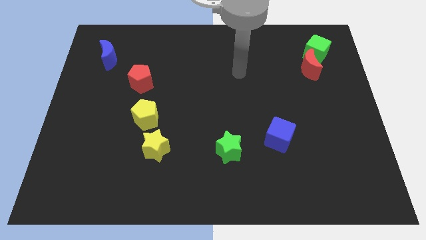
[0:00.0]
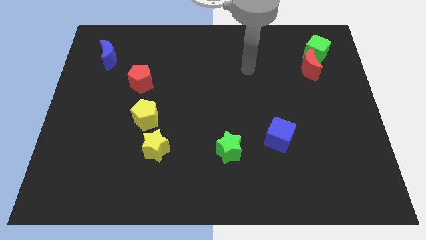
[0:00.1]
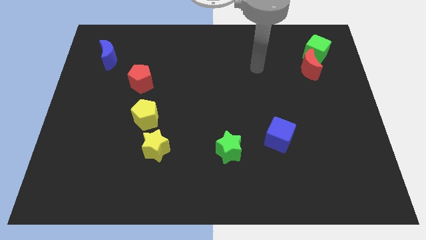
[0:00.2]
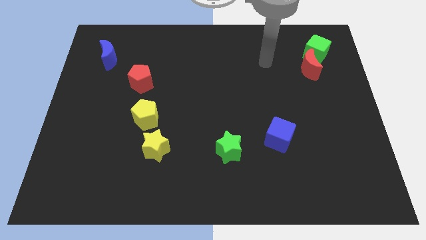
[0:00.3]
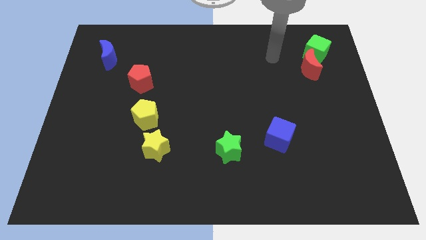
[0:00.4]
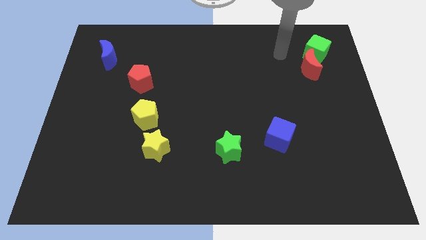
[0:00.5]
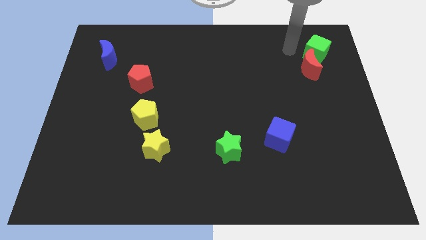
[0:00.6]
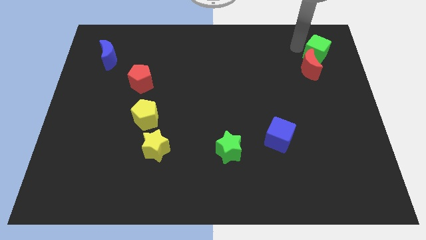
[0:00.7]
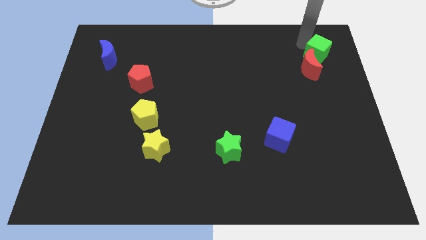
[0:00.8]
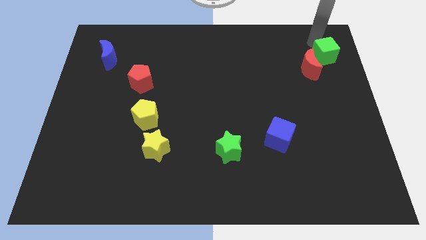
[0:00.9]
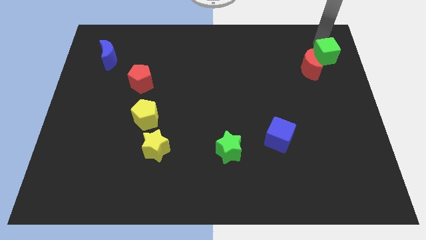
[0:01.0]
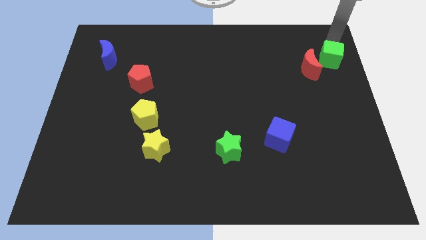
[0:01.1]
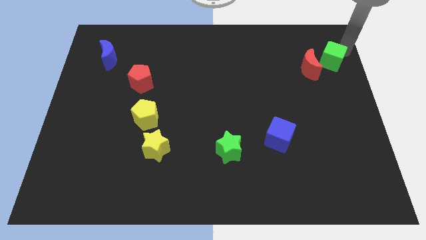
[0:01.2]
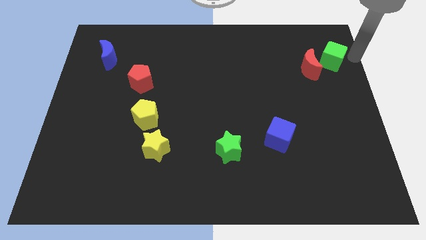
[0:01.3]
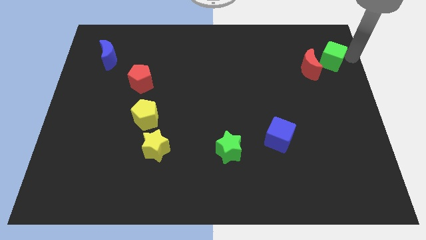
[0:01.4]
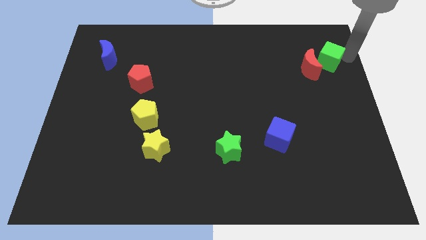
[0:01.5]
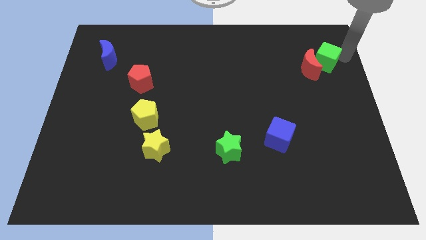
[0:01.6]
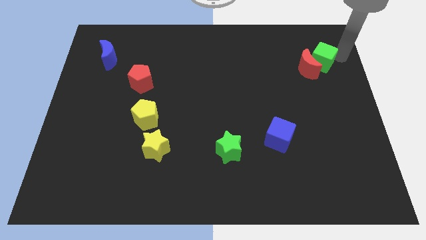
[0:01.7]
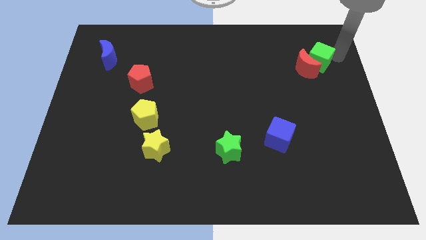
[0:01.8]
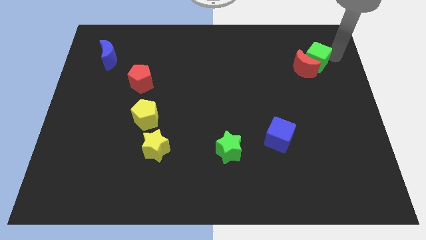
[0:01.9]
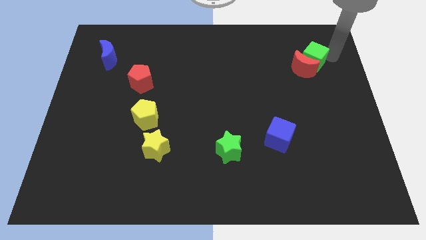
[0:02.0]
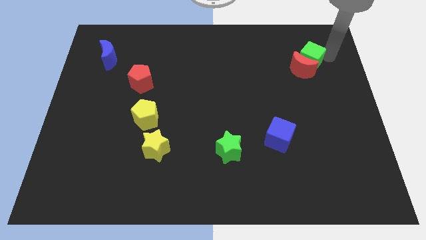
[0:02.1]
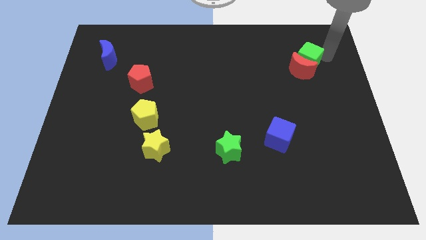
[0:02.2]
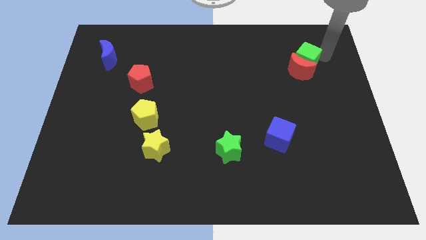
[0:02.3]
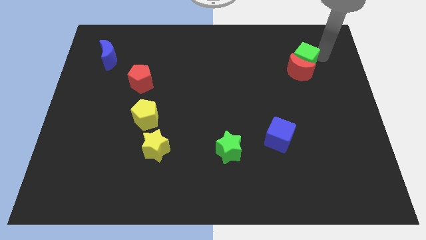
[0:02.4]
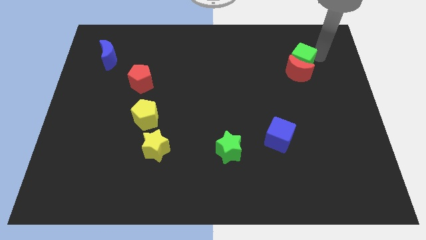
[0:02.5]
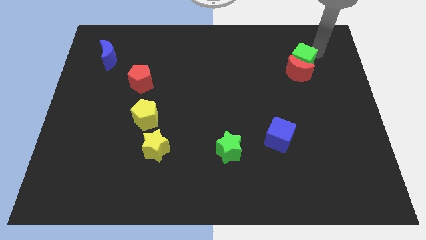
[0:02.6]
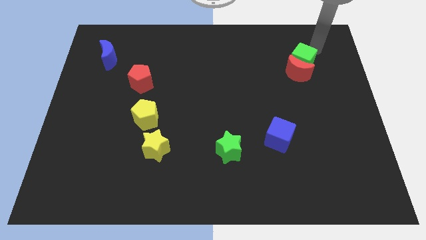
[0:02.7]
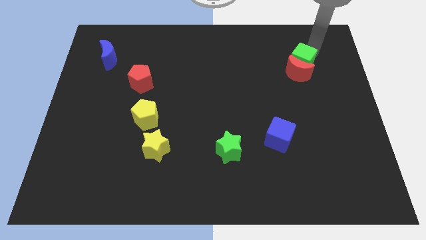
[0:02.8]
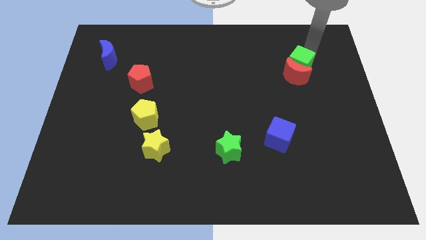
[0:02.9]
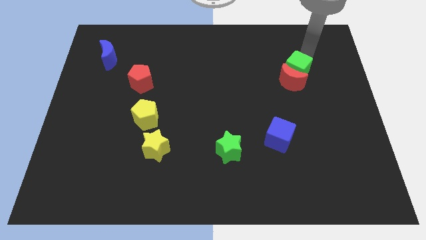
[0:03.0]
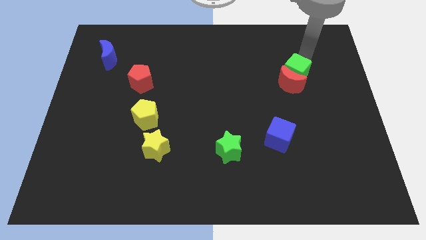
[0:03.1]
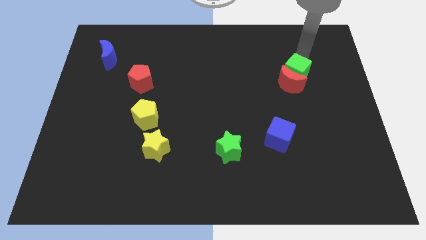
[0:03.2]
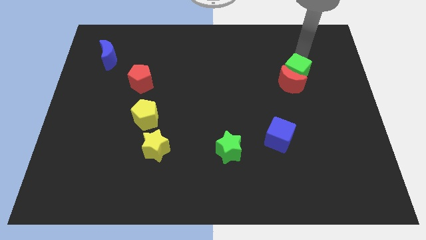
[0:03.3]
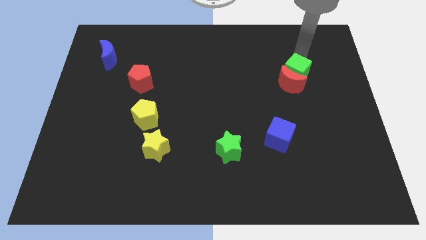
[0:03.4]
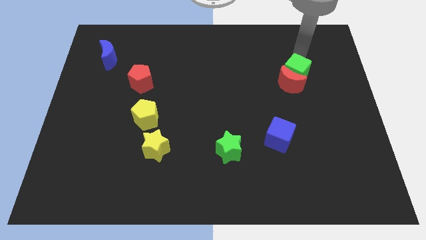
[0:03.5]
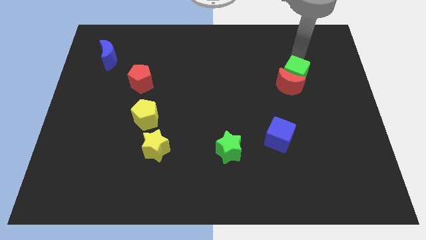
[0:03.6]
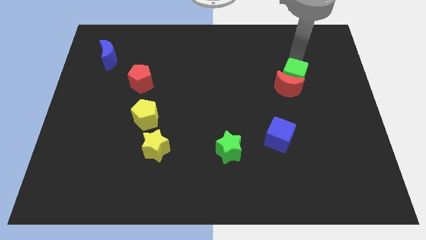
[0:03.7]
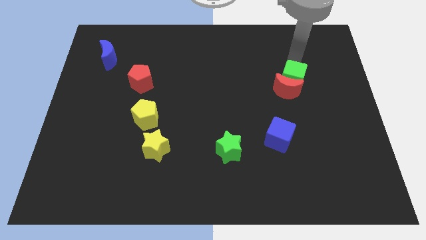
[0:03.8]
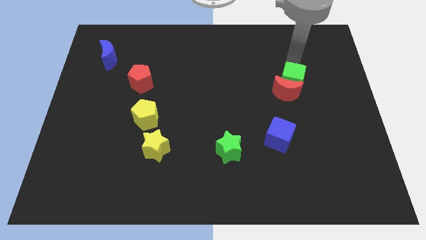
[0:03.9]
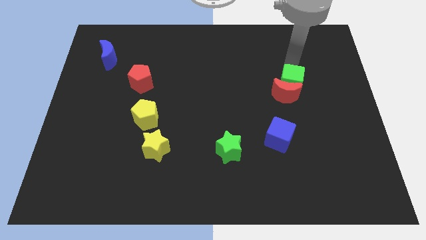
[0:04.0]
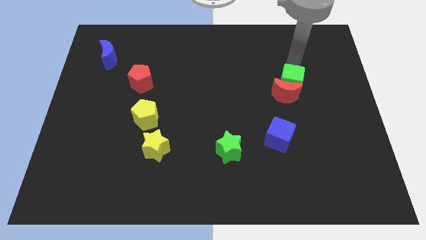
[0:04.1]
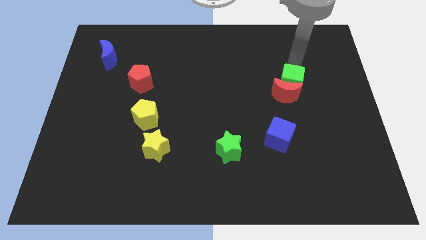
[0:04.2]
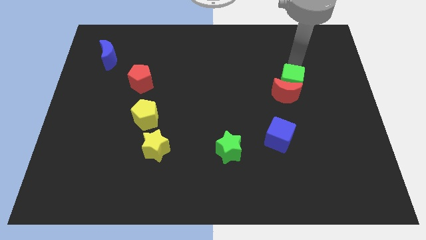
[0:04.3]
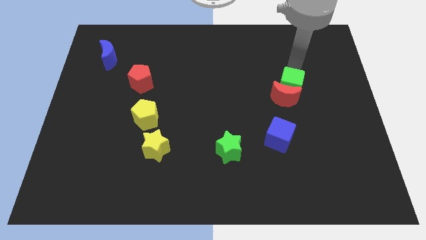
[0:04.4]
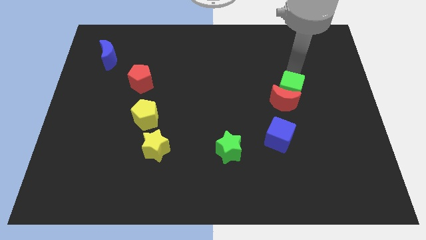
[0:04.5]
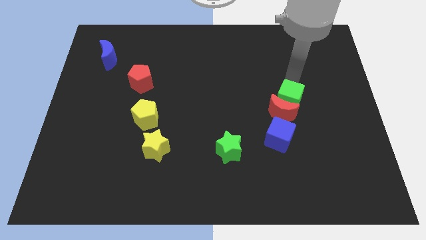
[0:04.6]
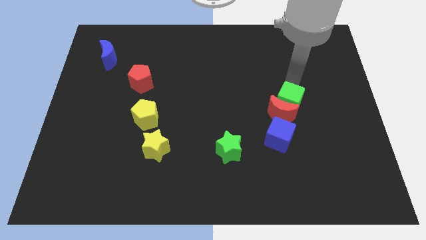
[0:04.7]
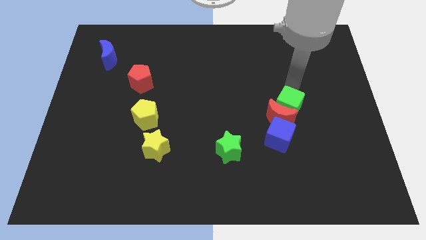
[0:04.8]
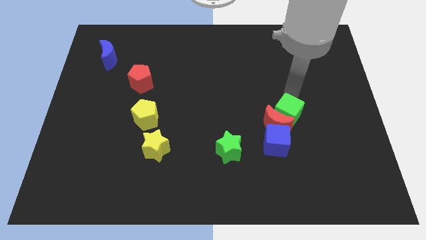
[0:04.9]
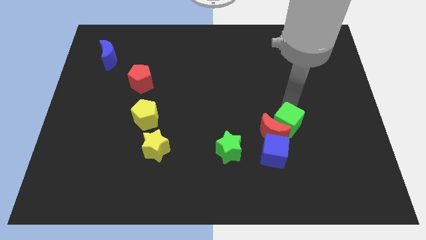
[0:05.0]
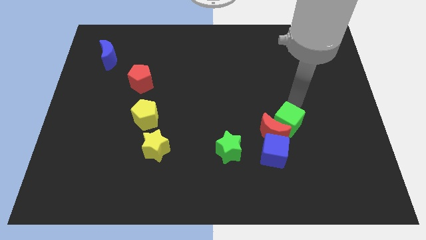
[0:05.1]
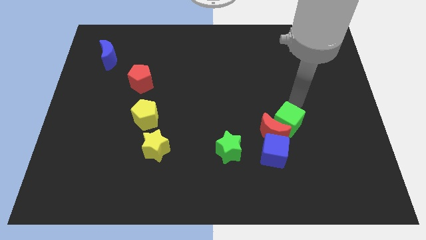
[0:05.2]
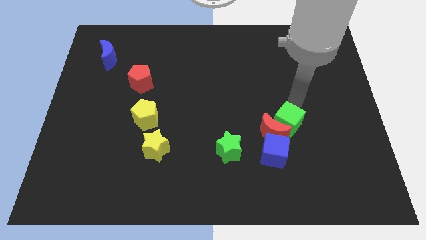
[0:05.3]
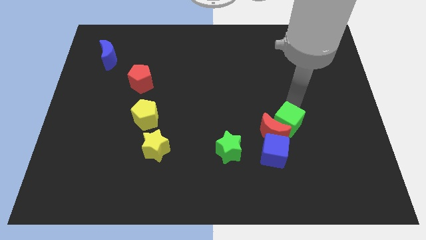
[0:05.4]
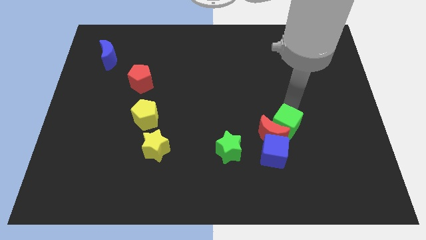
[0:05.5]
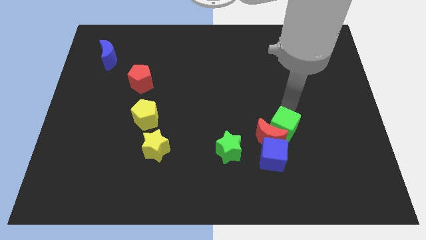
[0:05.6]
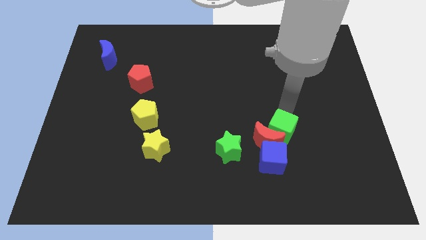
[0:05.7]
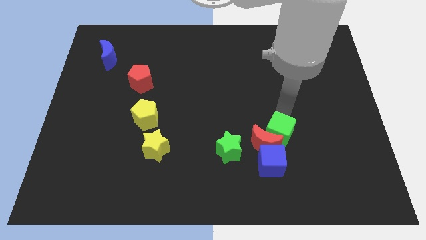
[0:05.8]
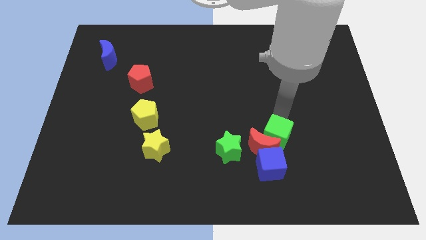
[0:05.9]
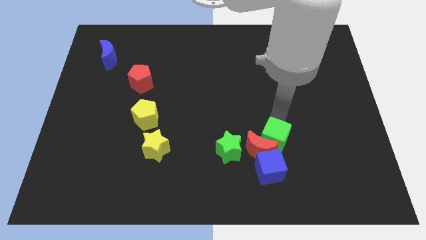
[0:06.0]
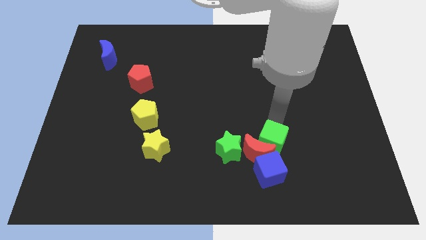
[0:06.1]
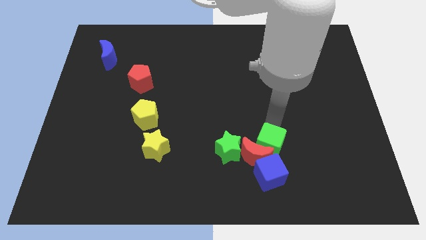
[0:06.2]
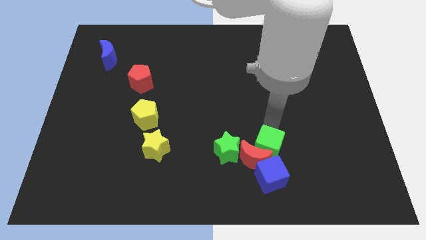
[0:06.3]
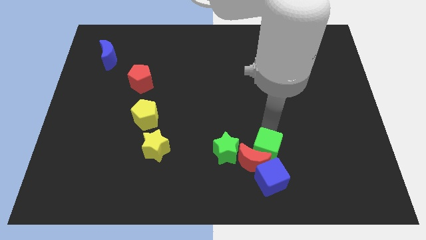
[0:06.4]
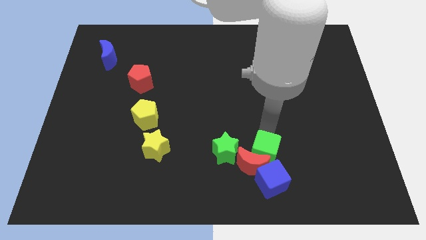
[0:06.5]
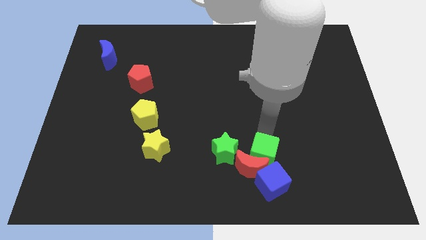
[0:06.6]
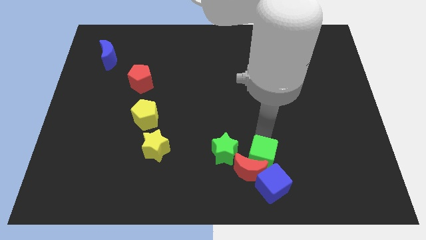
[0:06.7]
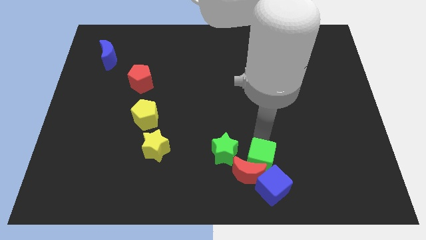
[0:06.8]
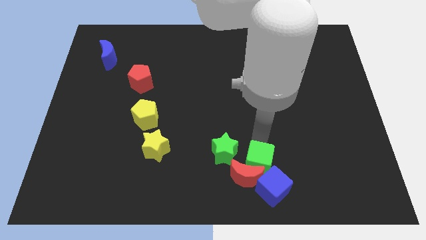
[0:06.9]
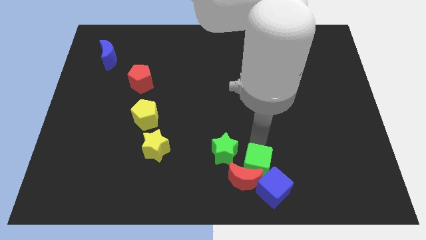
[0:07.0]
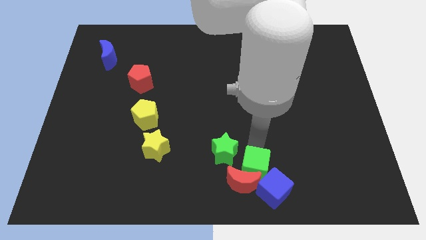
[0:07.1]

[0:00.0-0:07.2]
push the green cube close to the blue cube

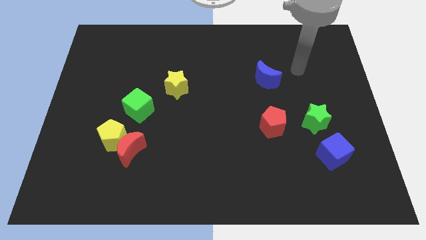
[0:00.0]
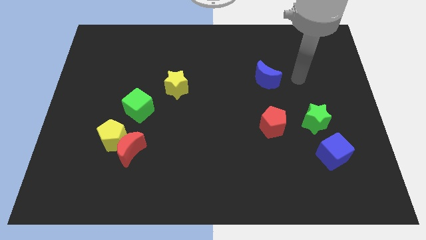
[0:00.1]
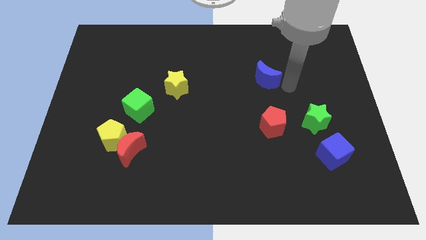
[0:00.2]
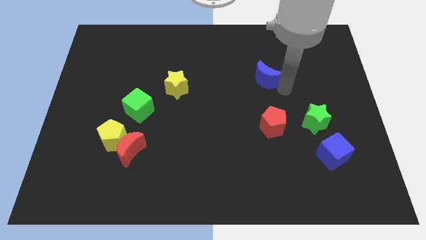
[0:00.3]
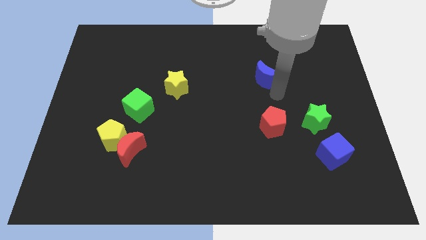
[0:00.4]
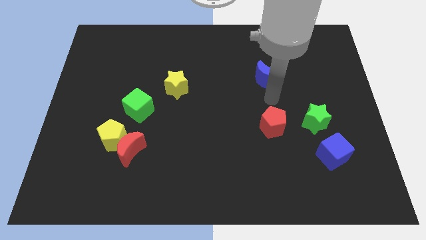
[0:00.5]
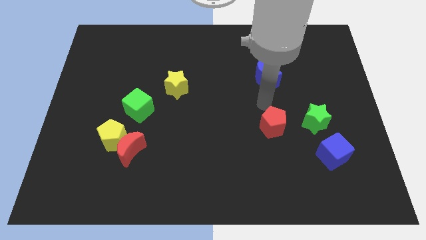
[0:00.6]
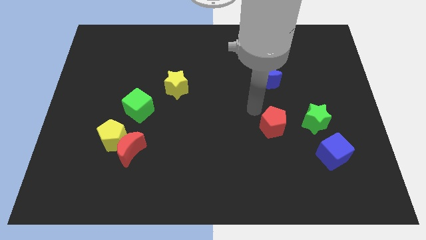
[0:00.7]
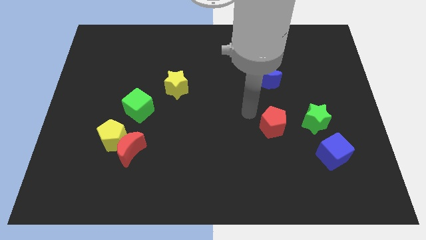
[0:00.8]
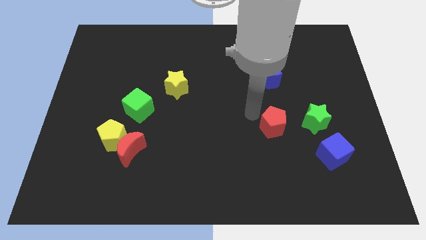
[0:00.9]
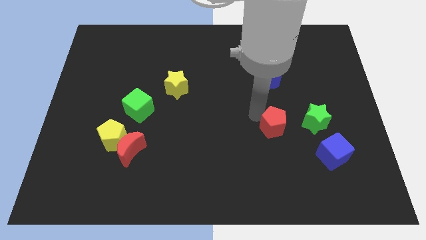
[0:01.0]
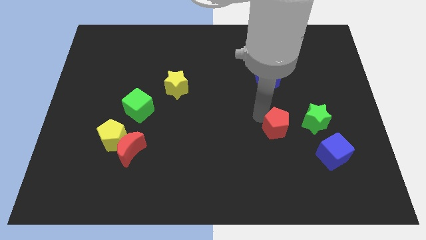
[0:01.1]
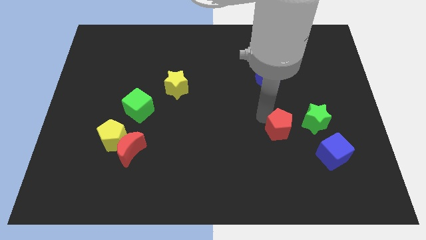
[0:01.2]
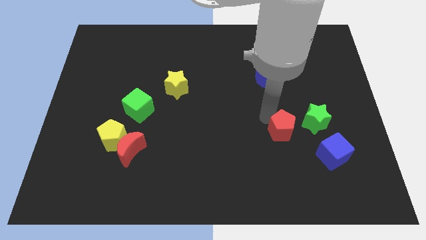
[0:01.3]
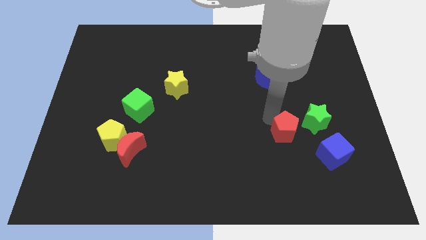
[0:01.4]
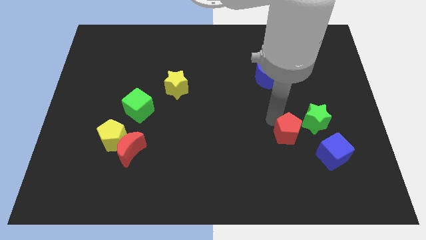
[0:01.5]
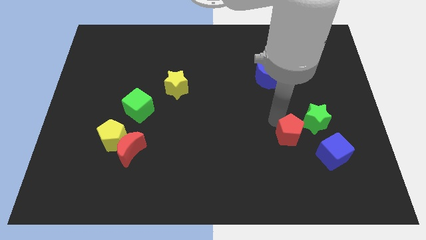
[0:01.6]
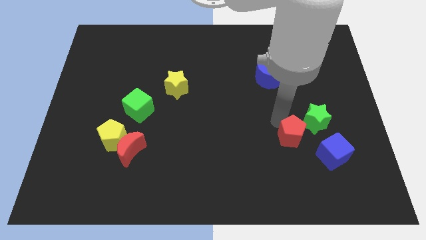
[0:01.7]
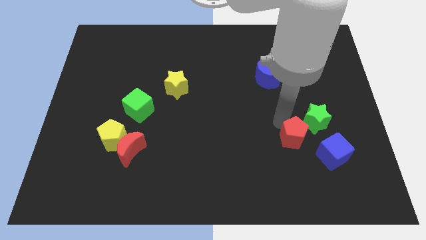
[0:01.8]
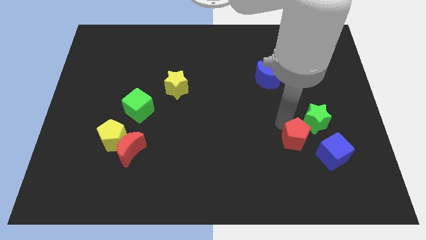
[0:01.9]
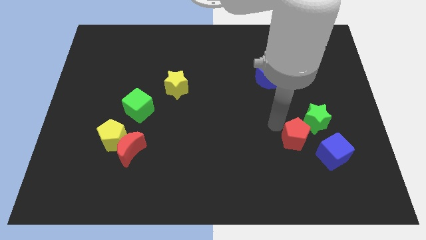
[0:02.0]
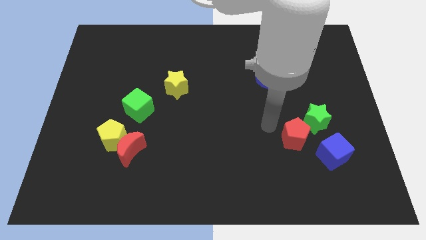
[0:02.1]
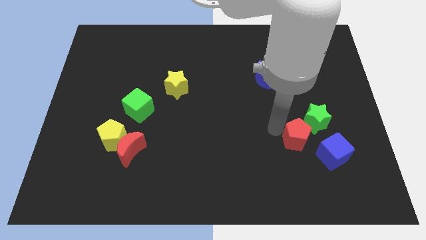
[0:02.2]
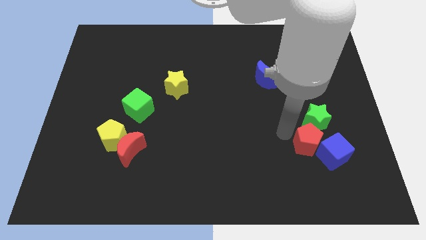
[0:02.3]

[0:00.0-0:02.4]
slide the red pentagon towards the blue cube
